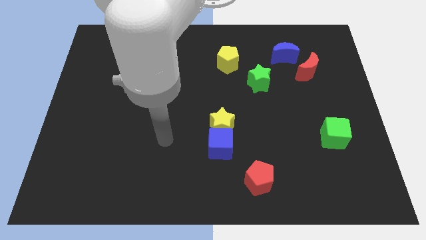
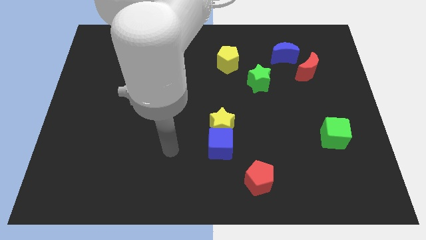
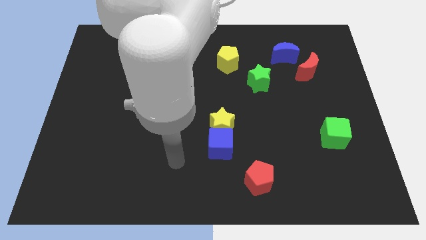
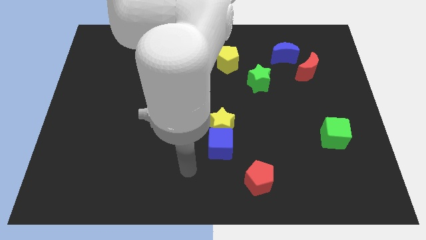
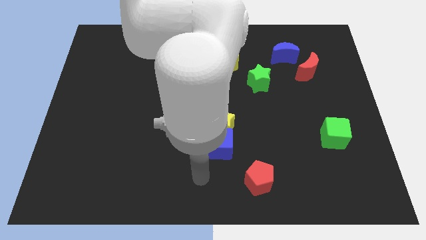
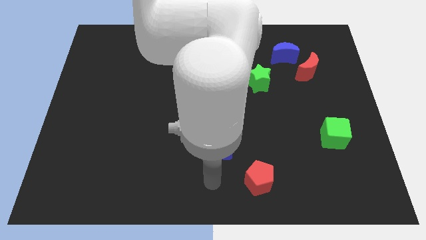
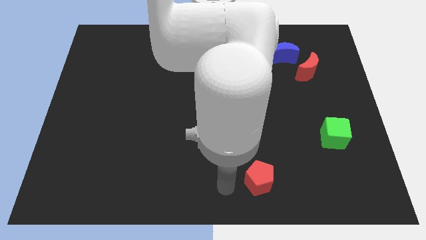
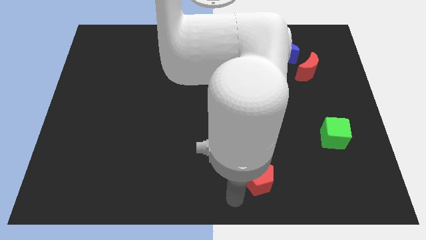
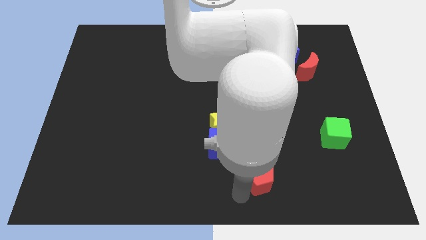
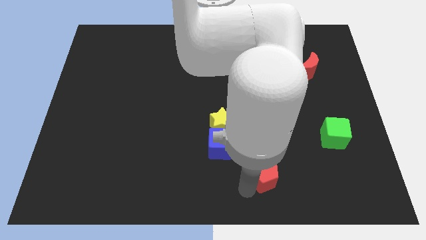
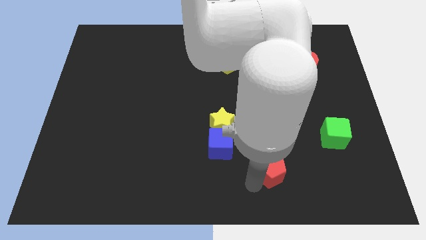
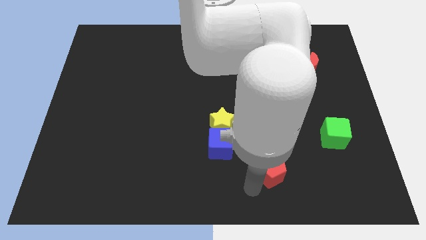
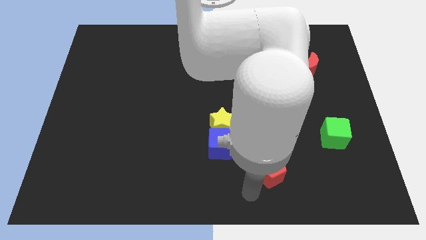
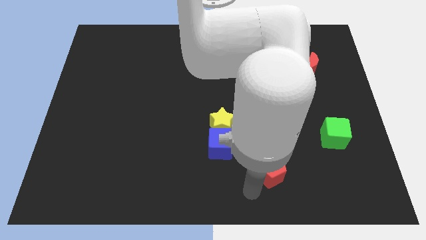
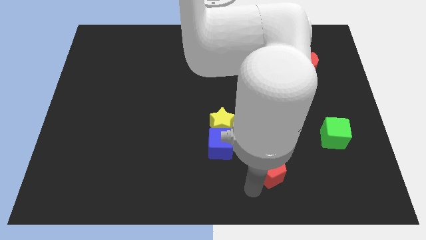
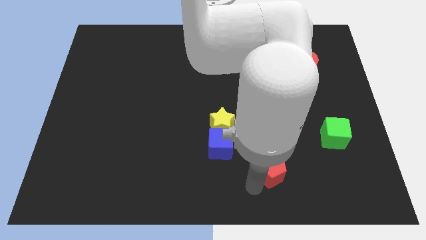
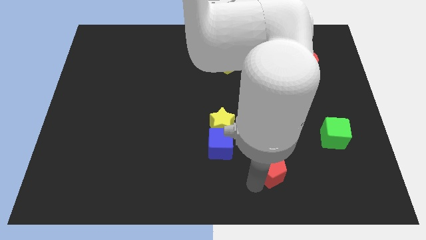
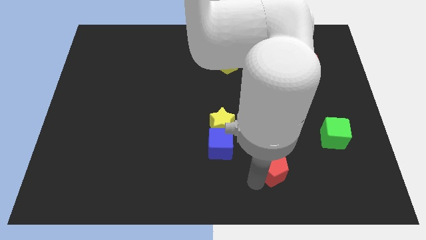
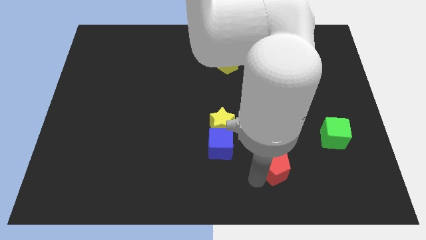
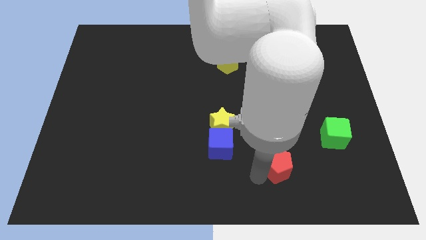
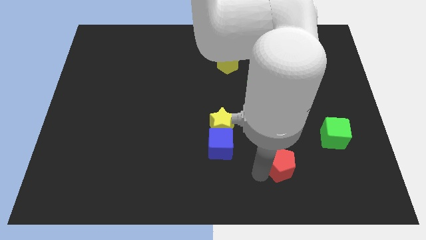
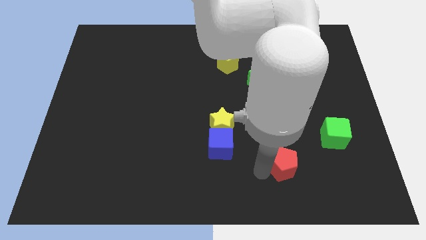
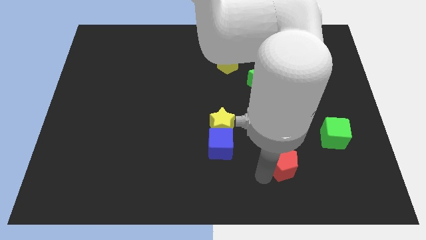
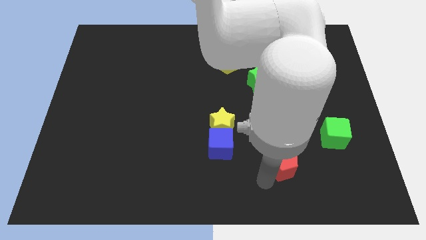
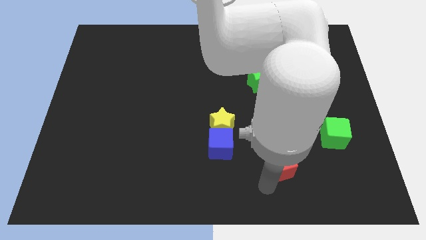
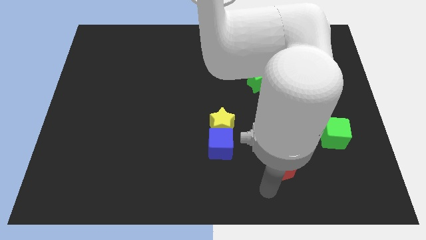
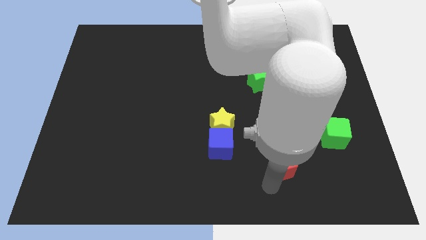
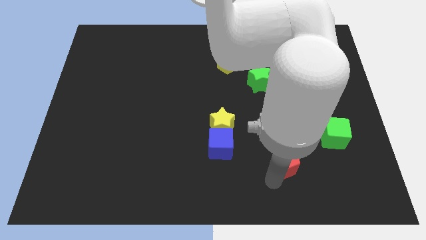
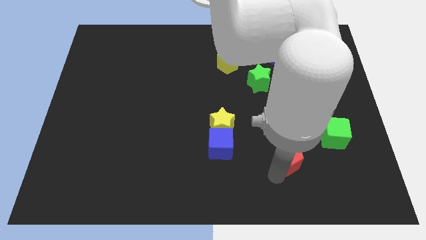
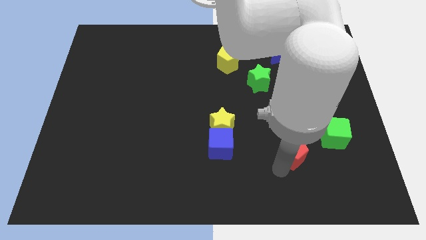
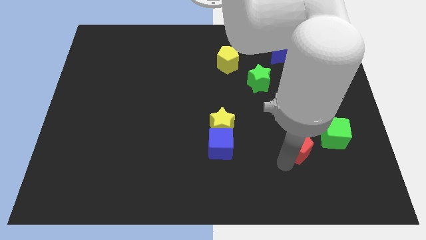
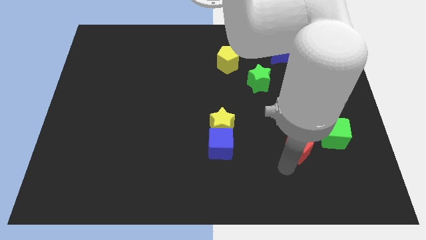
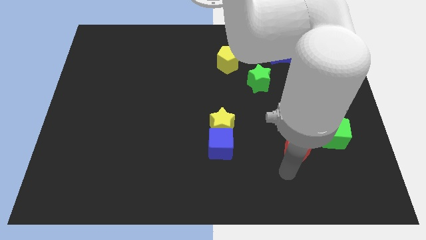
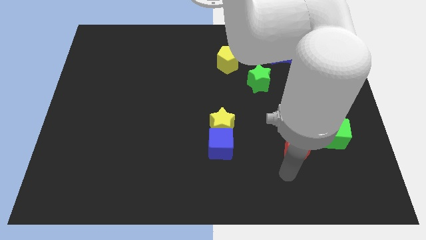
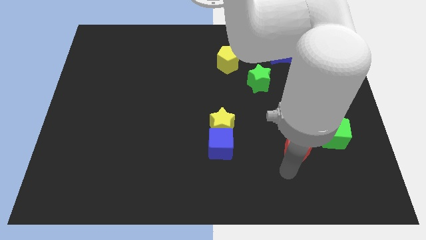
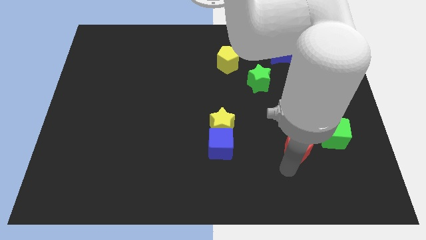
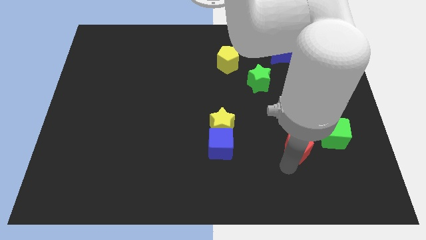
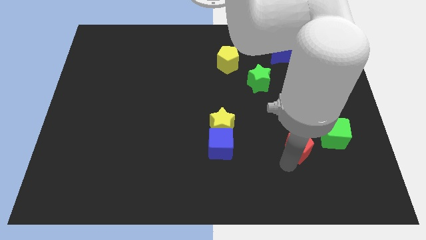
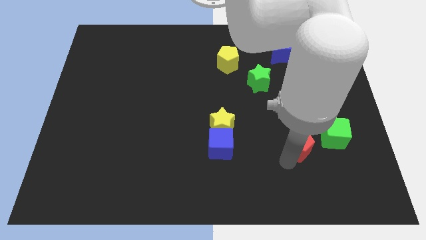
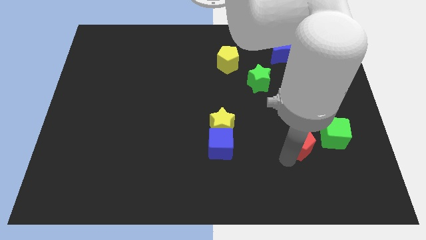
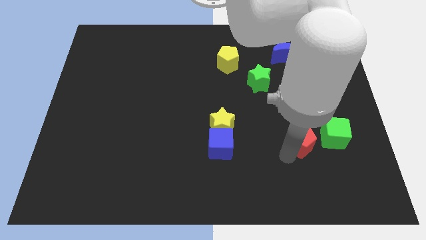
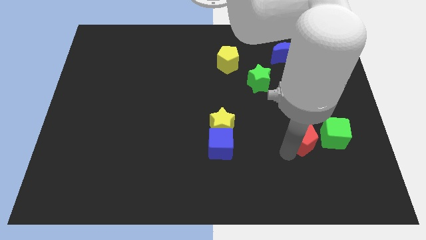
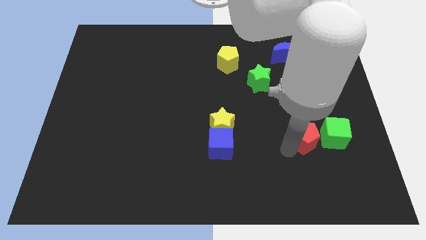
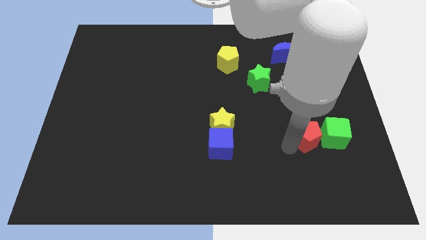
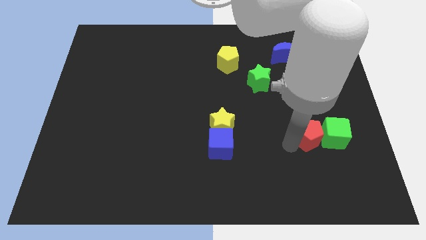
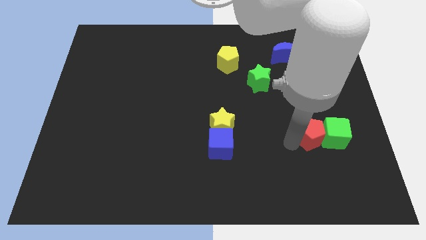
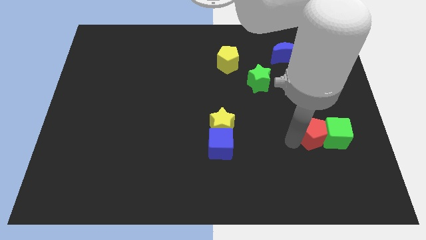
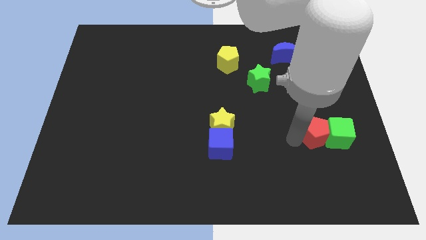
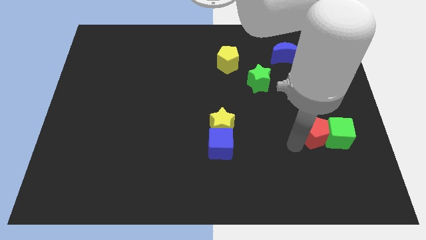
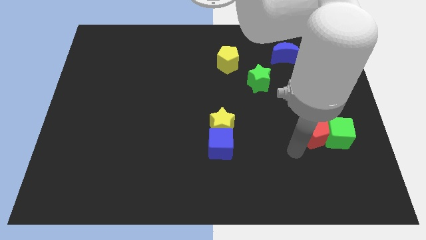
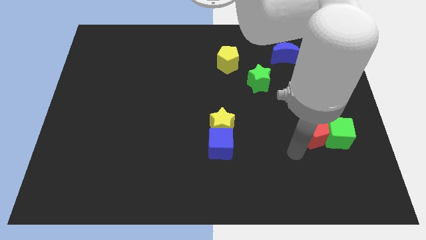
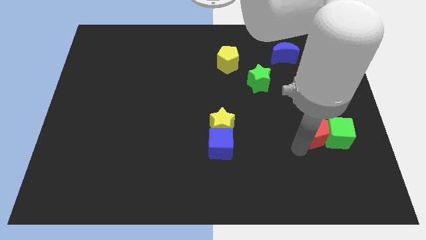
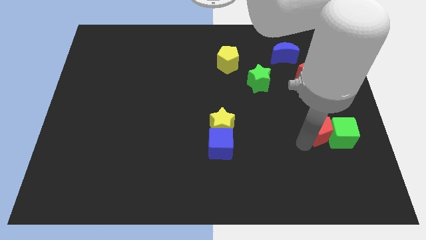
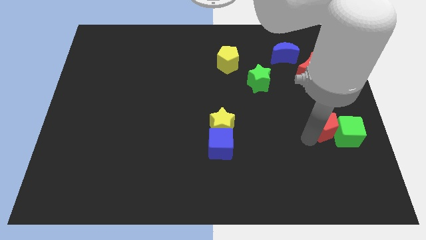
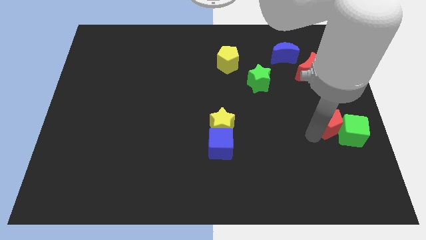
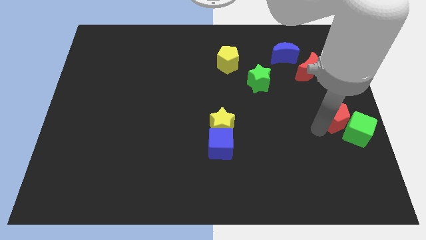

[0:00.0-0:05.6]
slide the red pentagon to the right side of the board

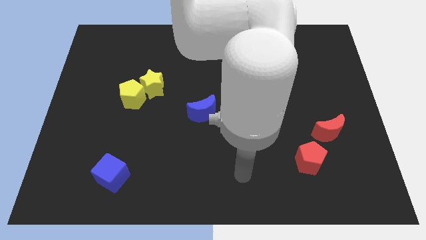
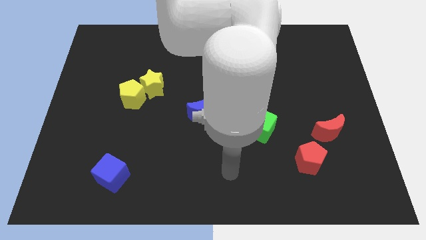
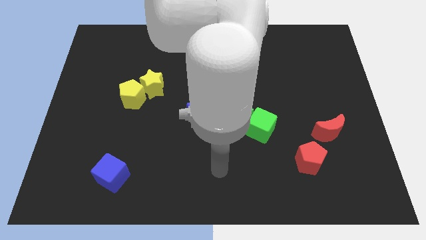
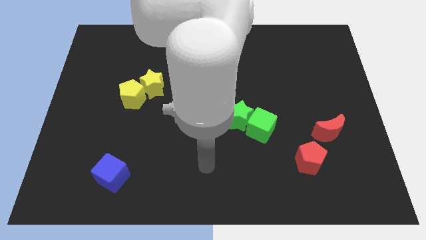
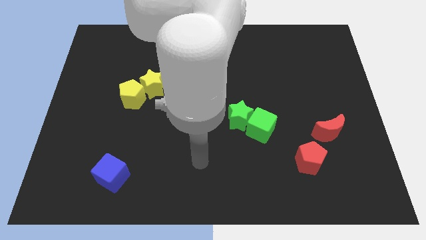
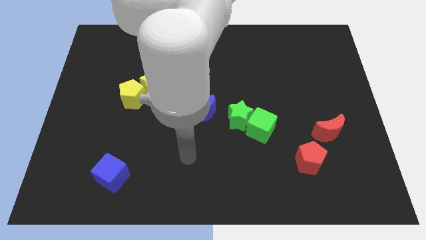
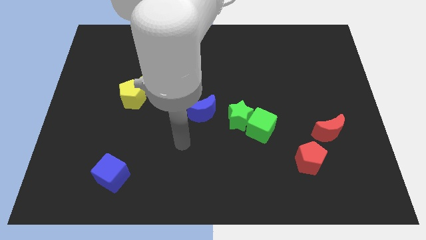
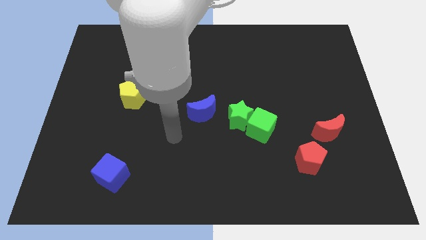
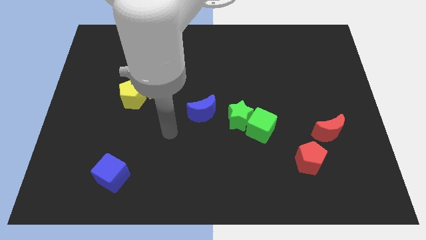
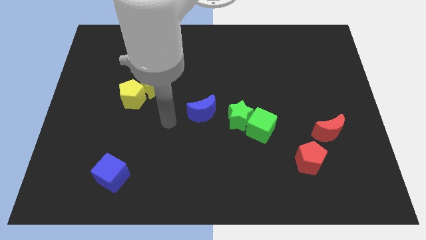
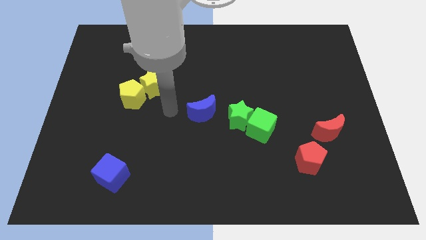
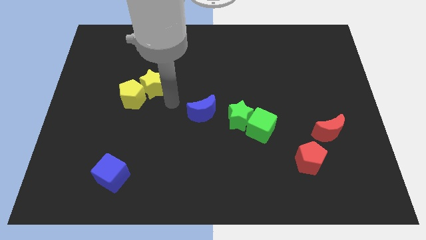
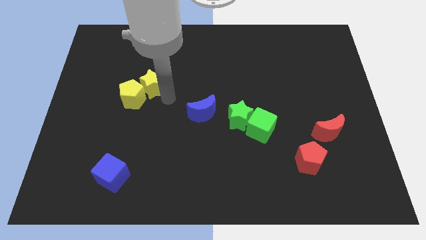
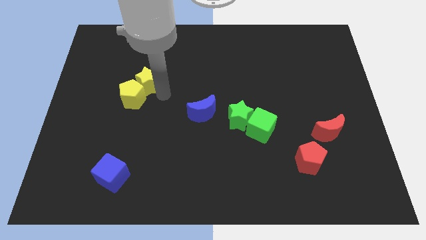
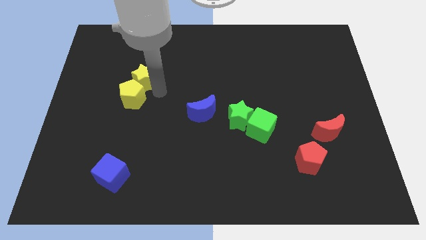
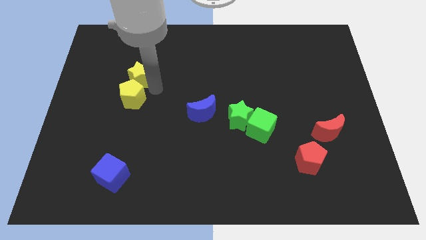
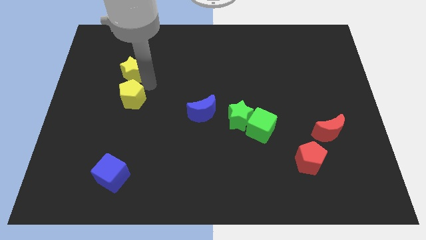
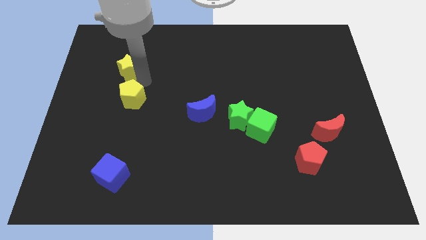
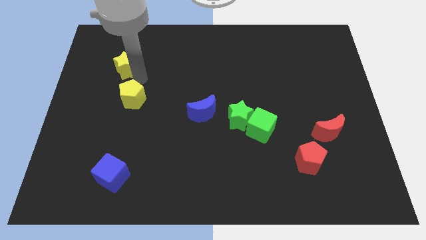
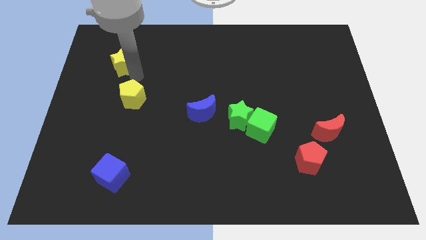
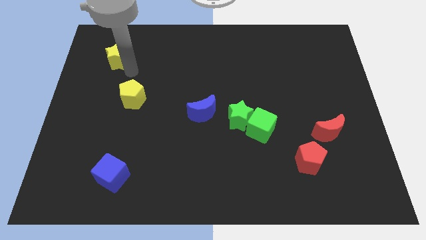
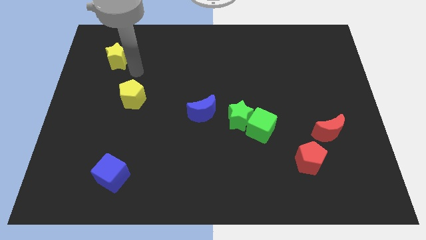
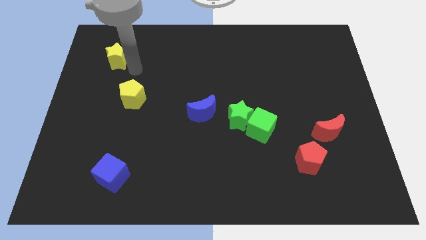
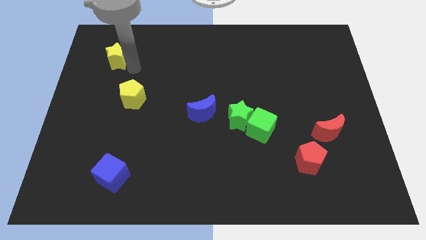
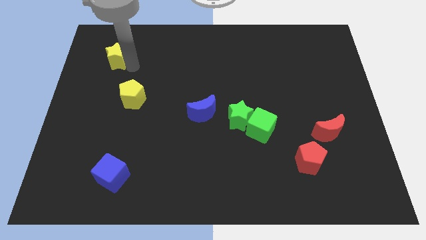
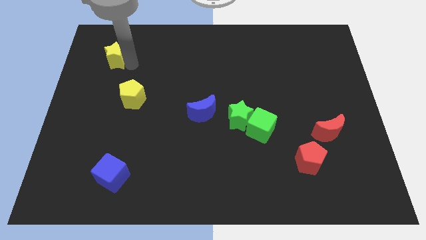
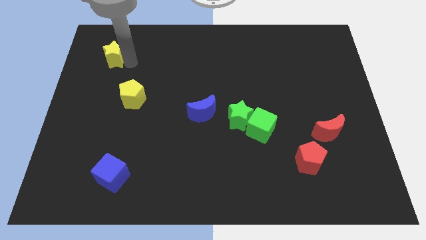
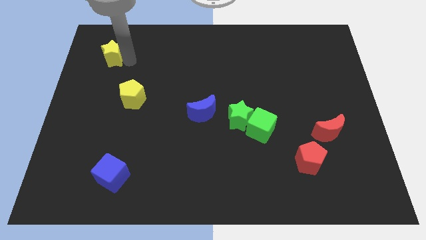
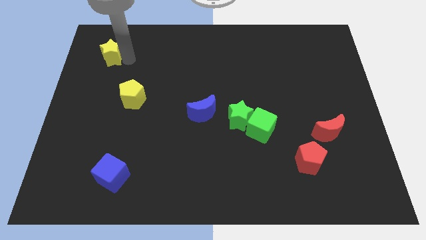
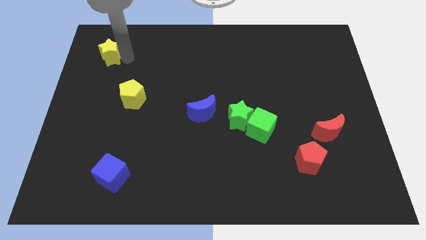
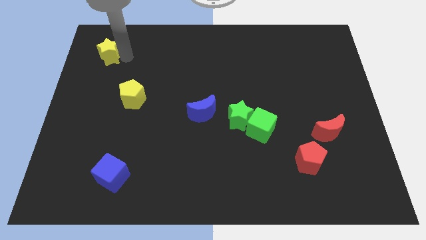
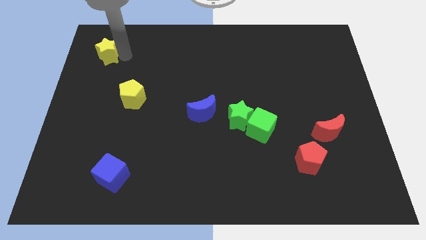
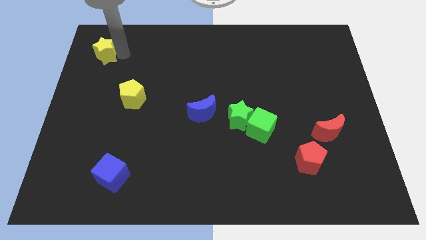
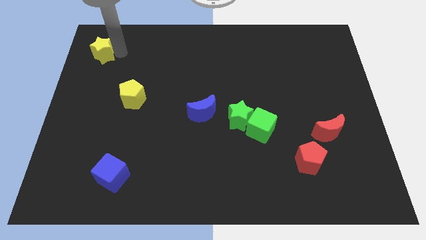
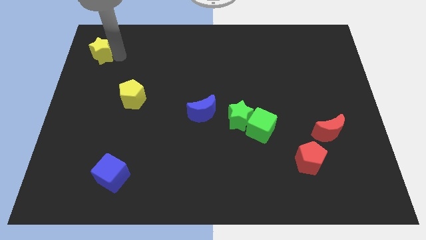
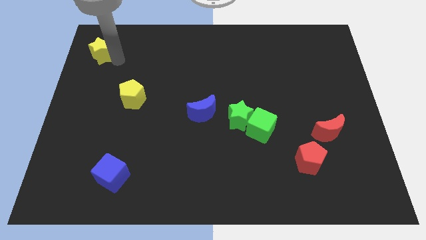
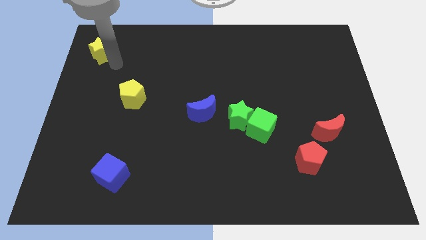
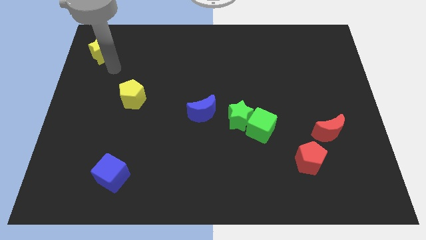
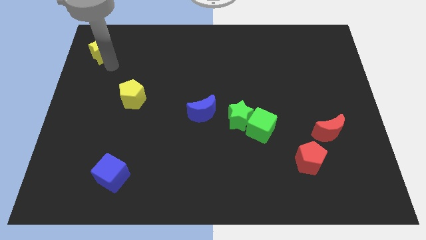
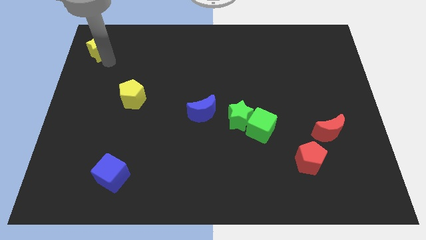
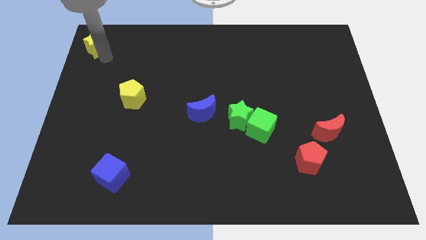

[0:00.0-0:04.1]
put the yellow star to the top left corner
